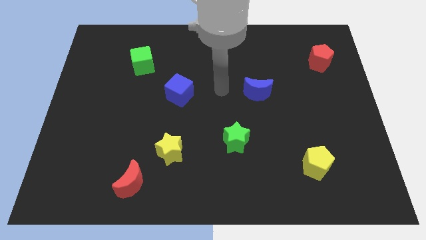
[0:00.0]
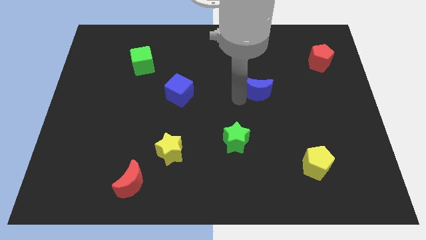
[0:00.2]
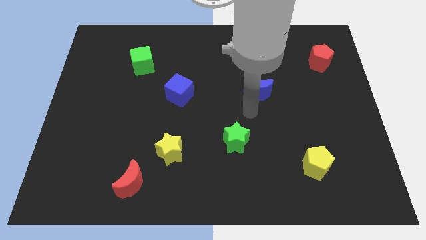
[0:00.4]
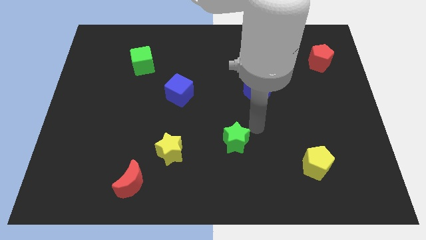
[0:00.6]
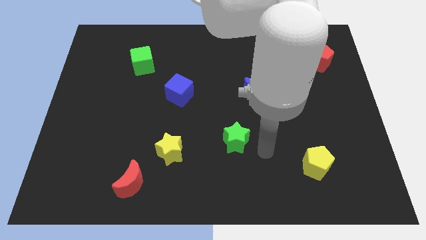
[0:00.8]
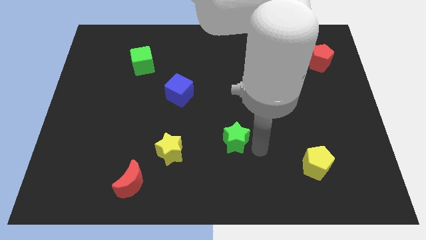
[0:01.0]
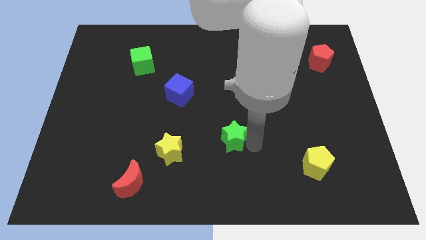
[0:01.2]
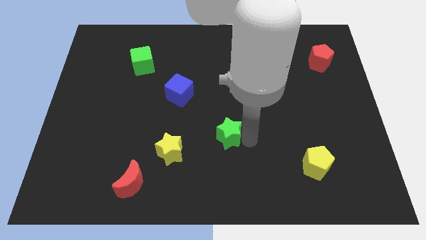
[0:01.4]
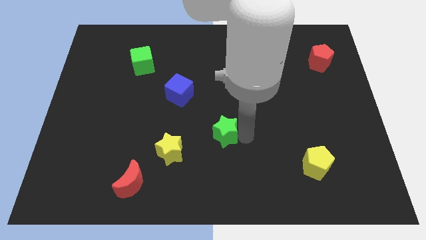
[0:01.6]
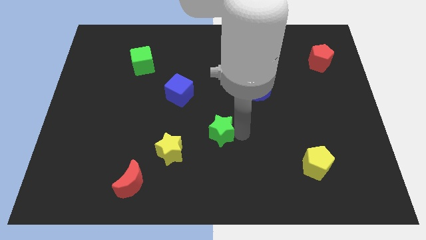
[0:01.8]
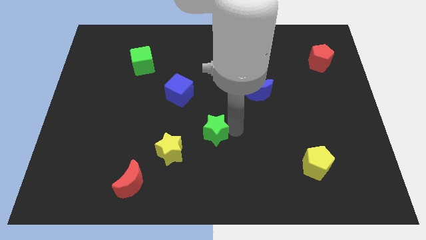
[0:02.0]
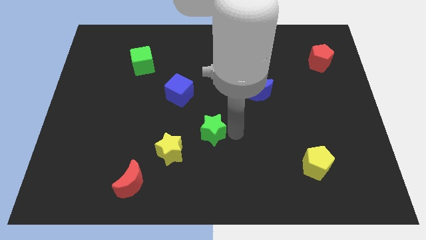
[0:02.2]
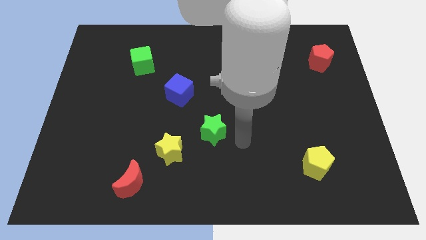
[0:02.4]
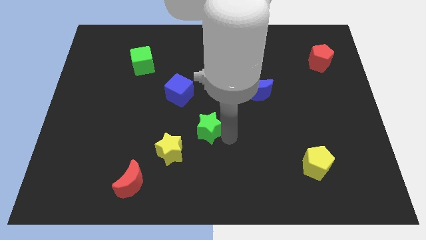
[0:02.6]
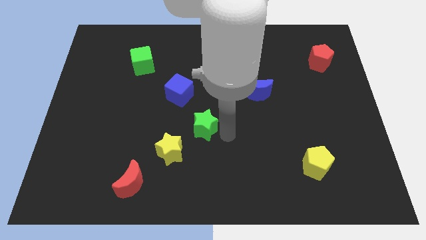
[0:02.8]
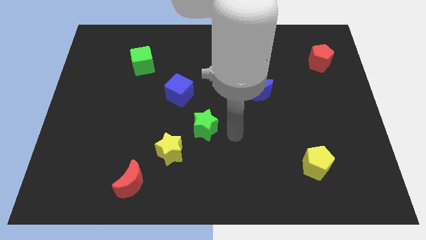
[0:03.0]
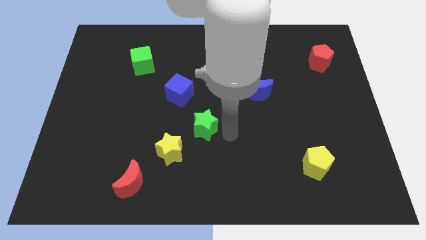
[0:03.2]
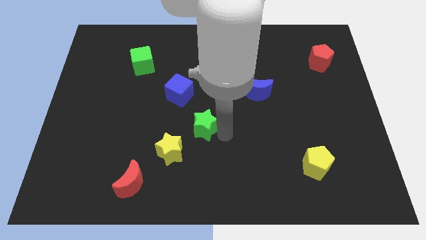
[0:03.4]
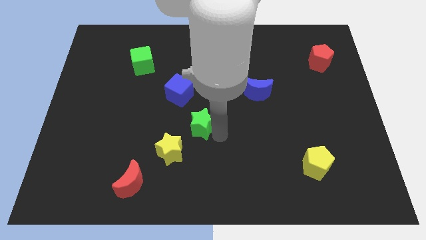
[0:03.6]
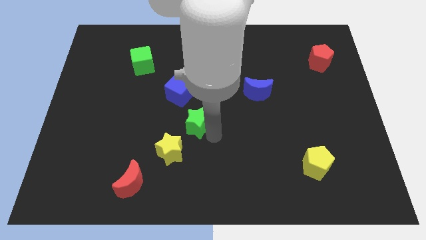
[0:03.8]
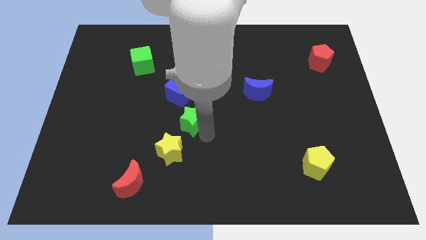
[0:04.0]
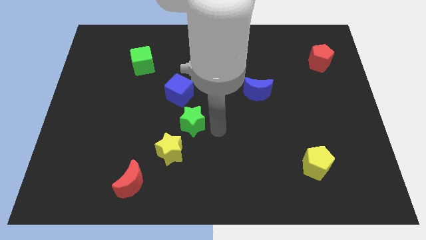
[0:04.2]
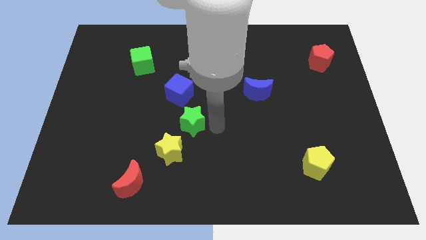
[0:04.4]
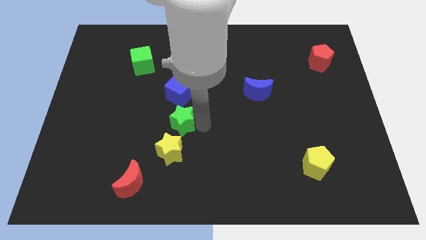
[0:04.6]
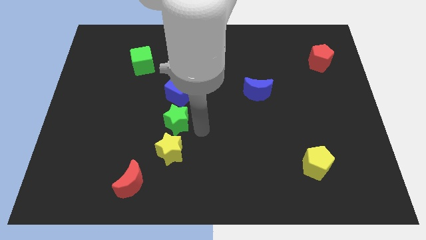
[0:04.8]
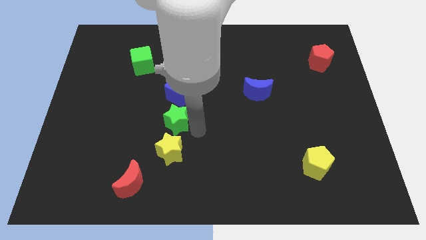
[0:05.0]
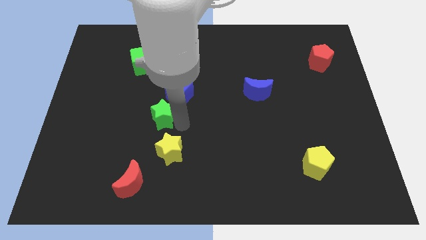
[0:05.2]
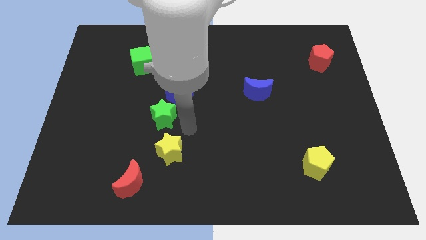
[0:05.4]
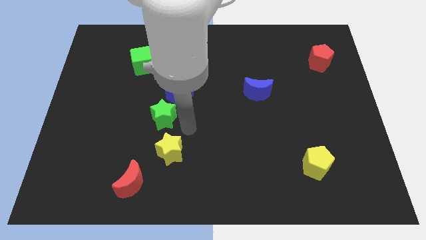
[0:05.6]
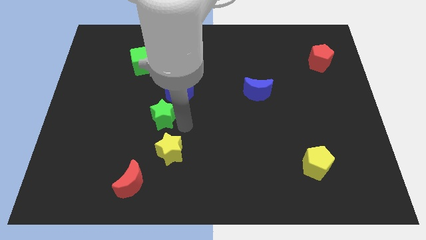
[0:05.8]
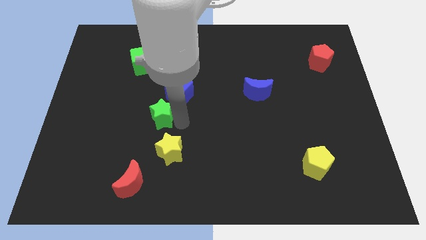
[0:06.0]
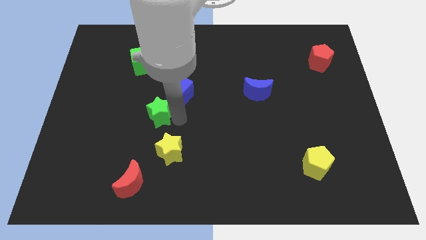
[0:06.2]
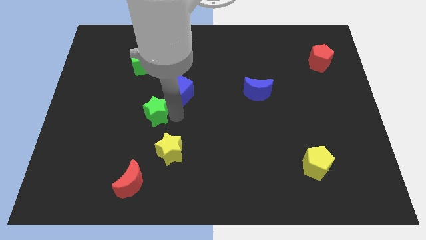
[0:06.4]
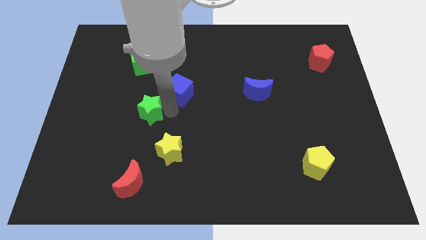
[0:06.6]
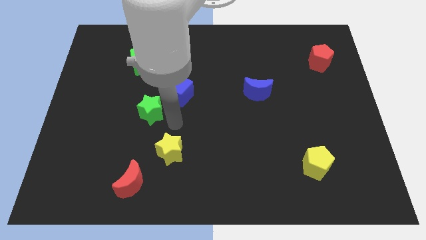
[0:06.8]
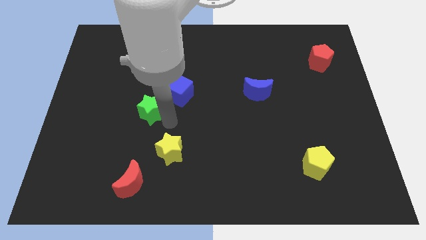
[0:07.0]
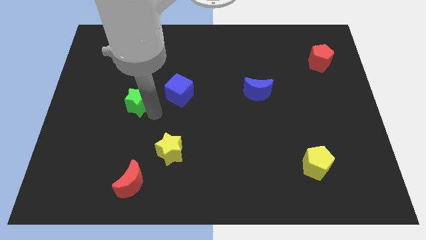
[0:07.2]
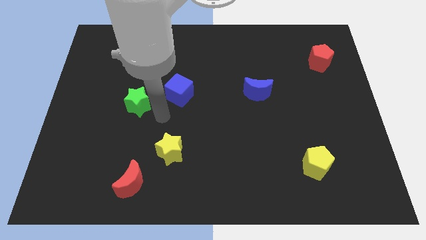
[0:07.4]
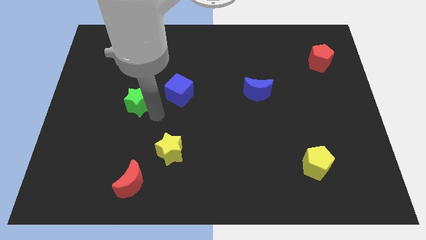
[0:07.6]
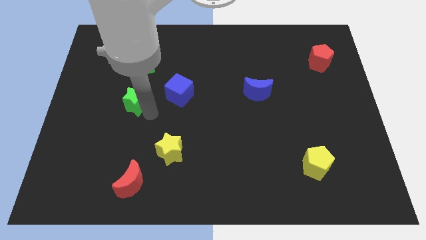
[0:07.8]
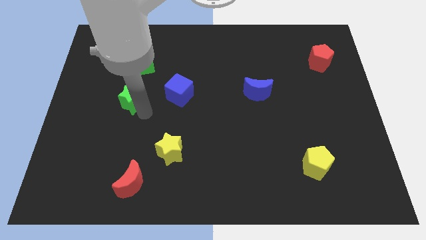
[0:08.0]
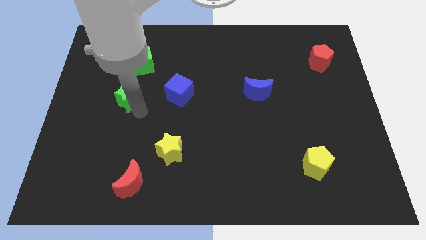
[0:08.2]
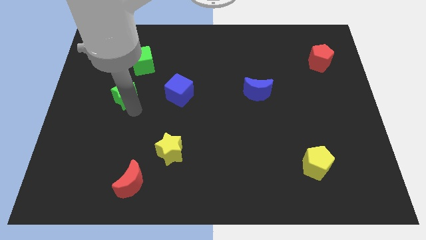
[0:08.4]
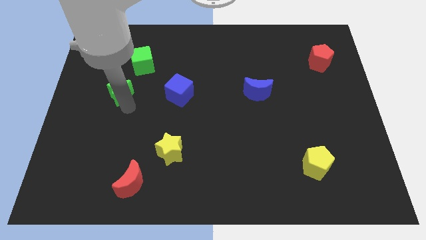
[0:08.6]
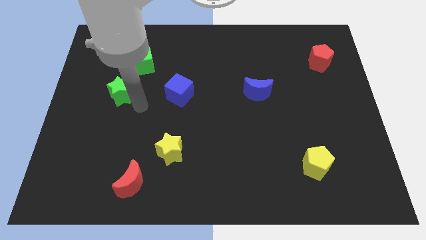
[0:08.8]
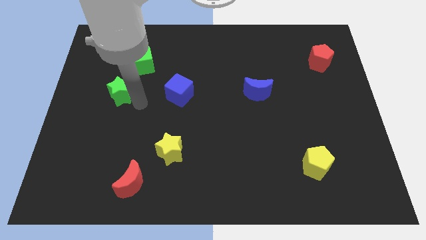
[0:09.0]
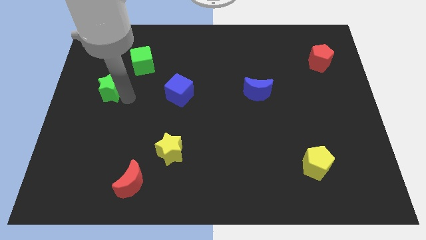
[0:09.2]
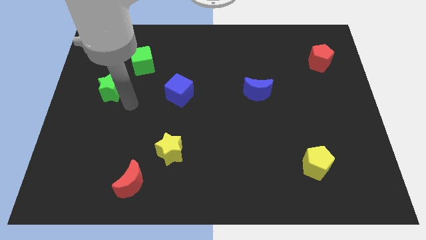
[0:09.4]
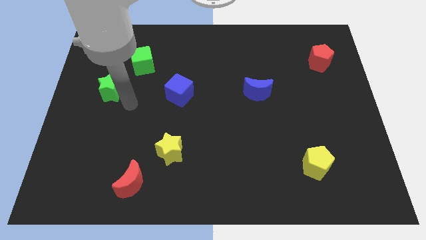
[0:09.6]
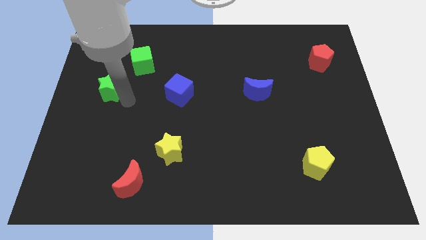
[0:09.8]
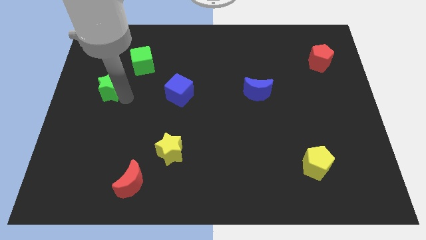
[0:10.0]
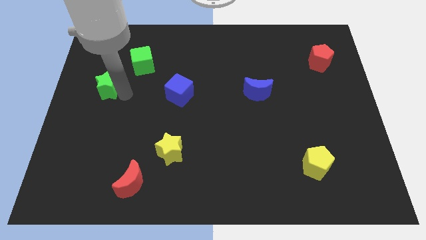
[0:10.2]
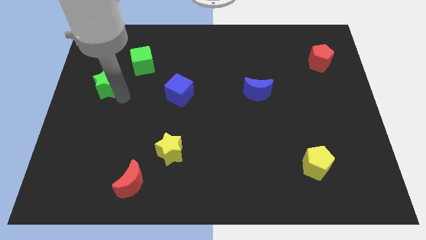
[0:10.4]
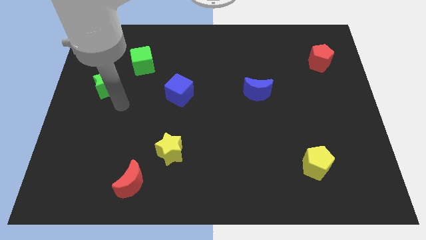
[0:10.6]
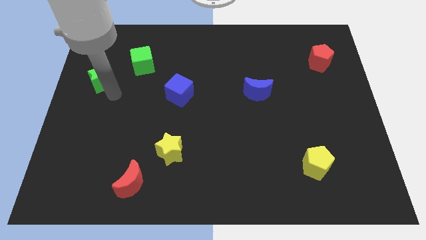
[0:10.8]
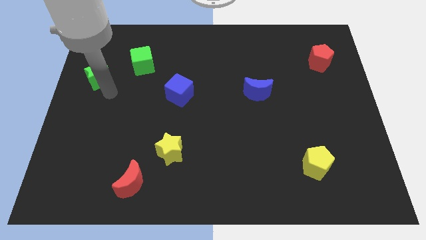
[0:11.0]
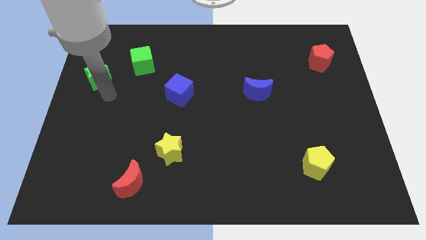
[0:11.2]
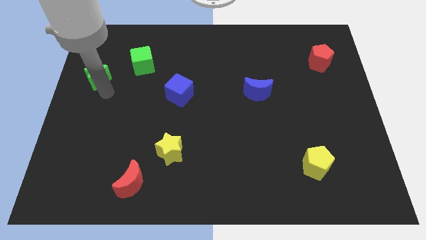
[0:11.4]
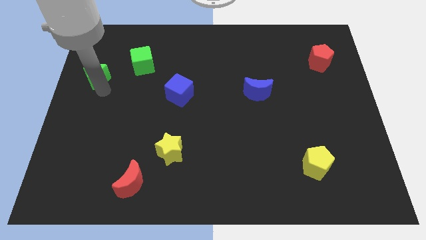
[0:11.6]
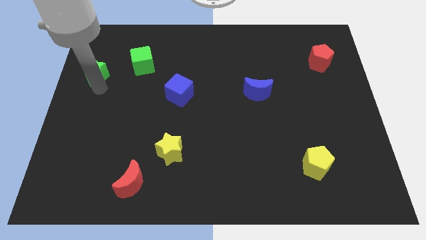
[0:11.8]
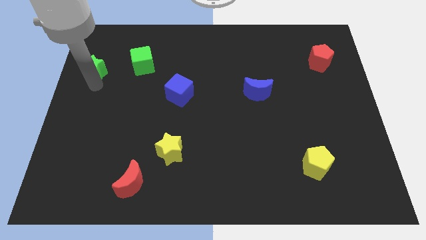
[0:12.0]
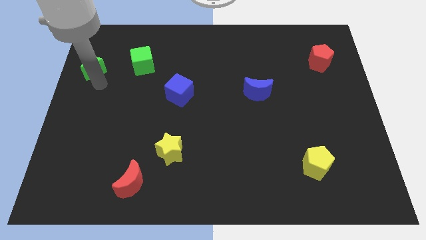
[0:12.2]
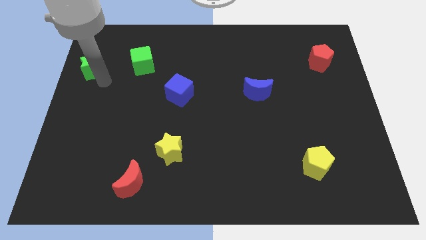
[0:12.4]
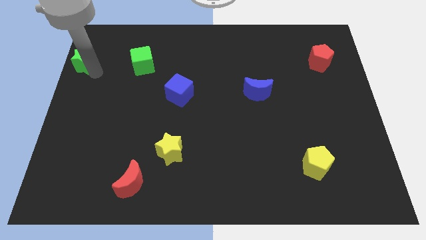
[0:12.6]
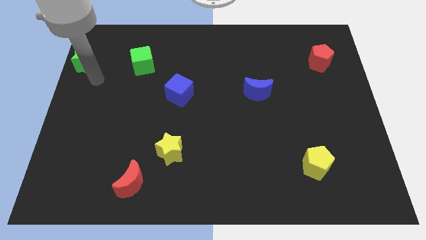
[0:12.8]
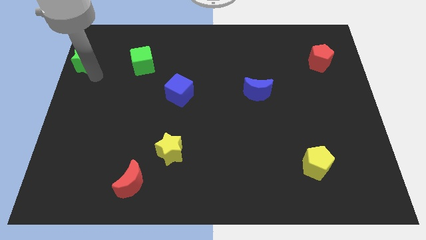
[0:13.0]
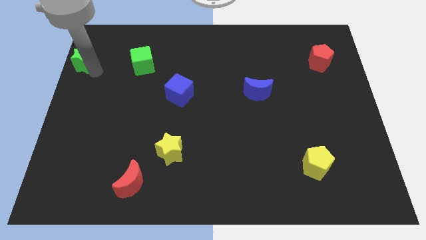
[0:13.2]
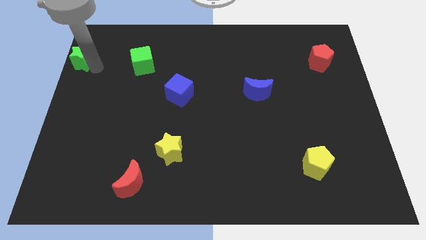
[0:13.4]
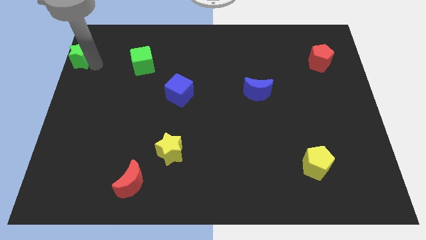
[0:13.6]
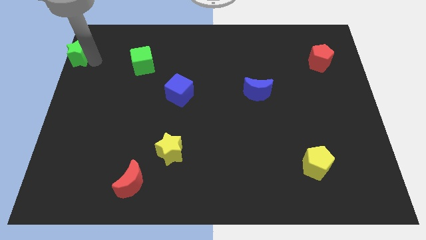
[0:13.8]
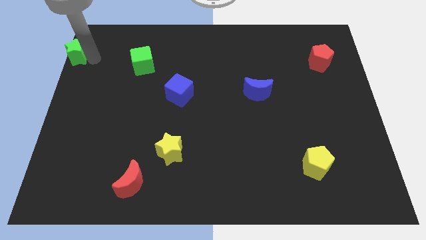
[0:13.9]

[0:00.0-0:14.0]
push the green star to the top left of the board
